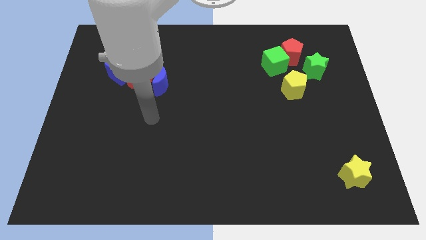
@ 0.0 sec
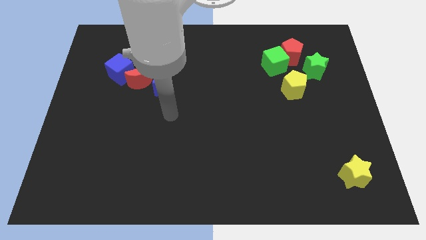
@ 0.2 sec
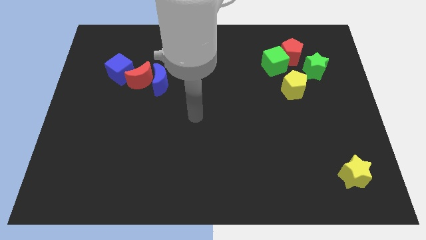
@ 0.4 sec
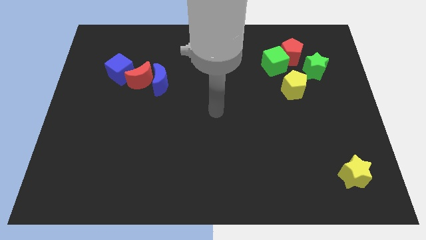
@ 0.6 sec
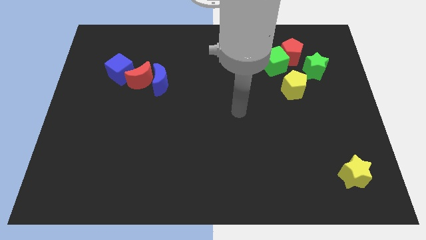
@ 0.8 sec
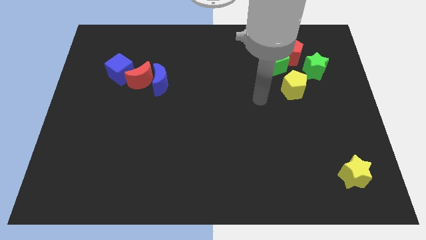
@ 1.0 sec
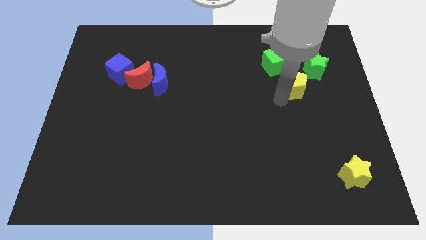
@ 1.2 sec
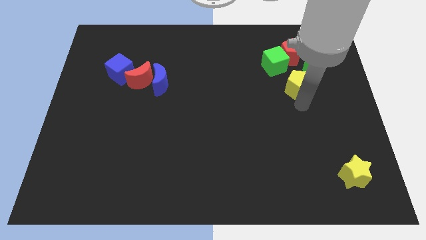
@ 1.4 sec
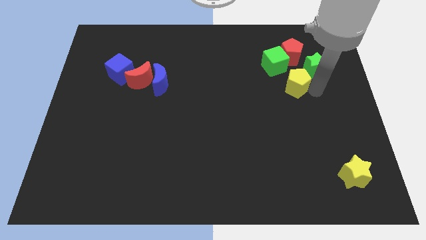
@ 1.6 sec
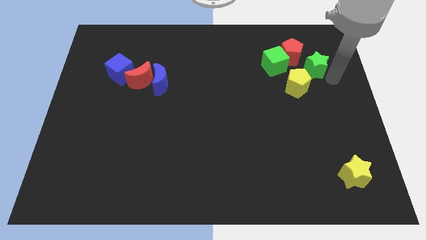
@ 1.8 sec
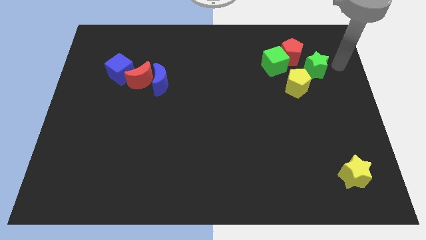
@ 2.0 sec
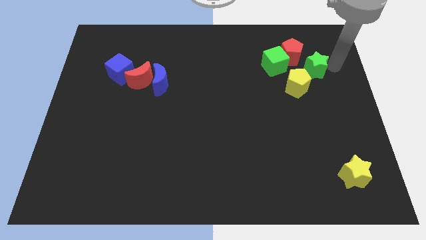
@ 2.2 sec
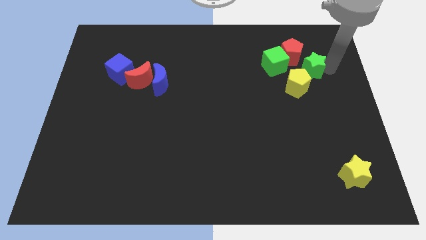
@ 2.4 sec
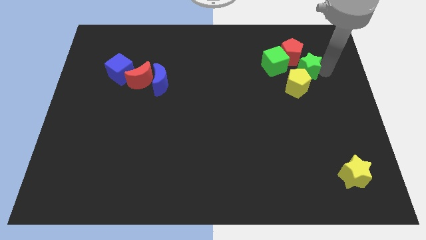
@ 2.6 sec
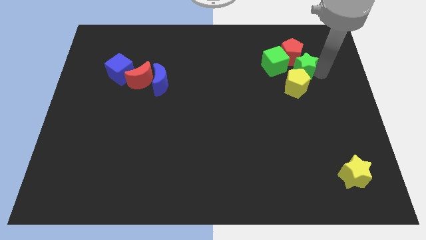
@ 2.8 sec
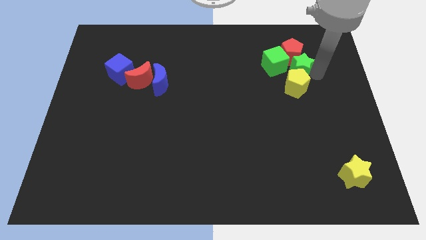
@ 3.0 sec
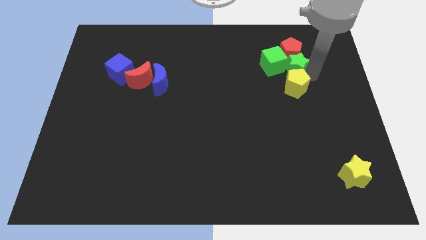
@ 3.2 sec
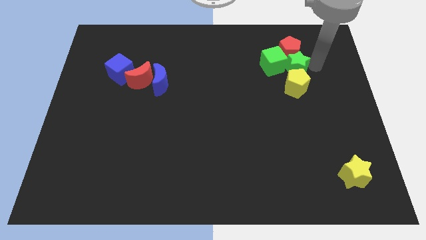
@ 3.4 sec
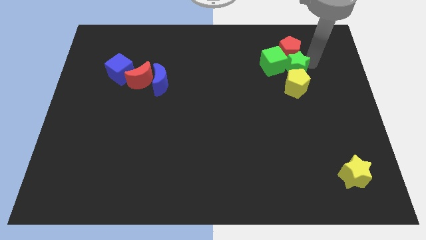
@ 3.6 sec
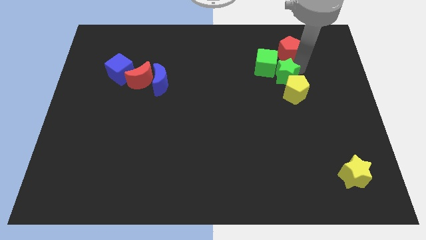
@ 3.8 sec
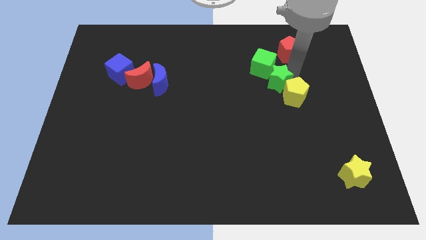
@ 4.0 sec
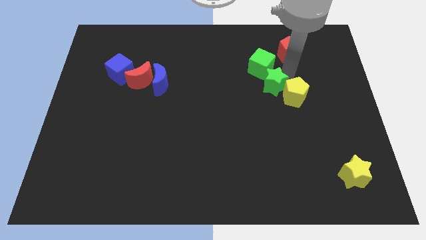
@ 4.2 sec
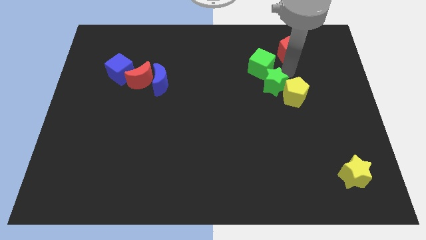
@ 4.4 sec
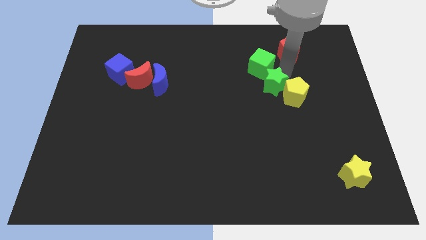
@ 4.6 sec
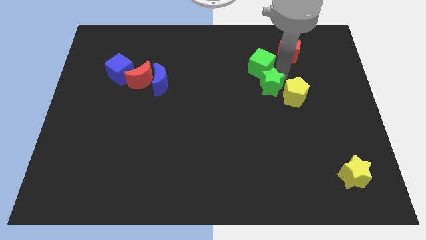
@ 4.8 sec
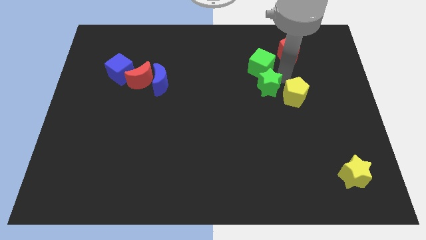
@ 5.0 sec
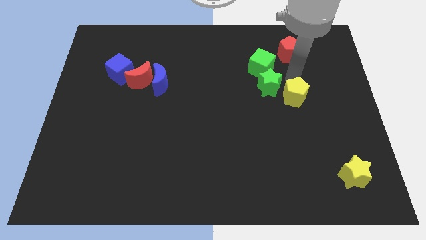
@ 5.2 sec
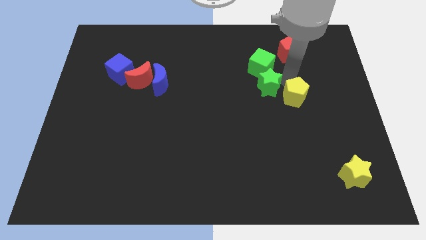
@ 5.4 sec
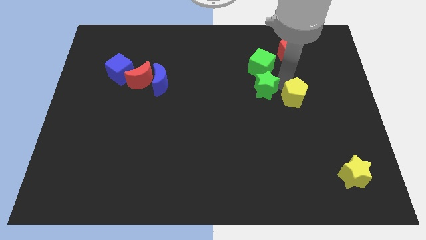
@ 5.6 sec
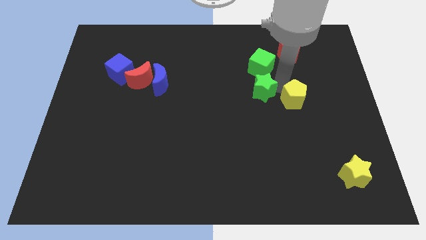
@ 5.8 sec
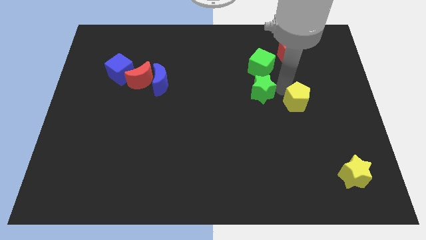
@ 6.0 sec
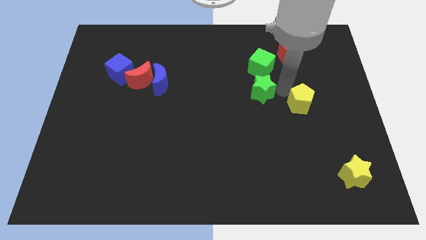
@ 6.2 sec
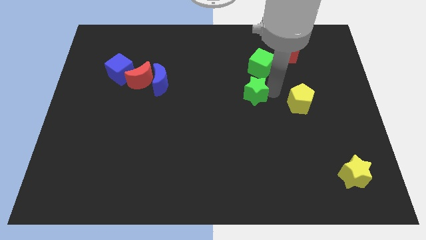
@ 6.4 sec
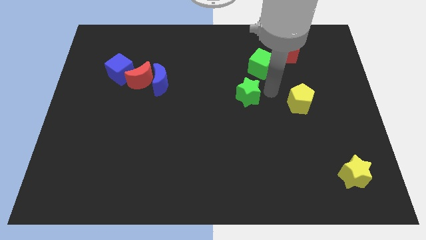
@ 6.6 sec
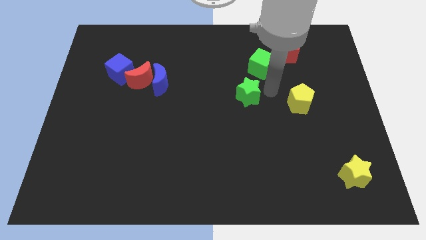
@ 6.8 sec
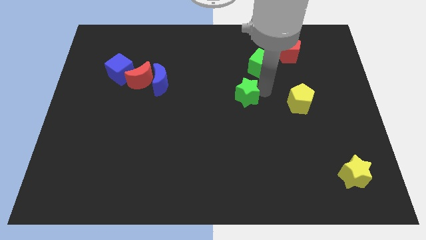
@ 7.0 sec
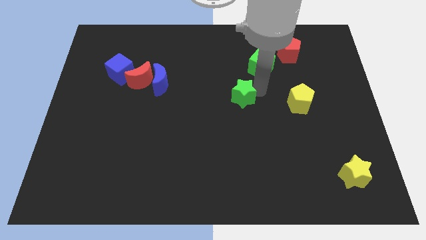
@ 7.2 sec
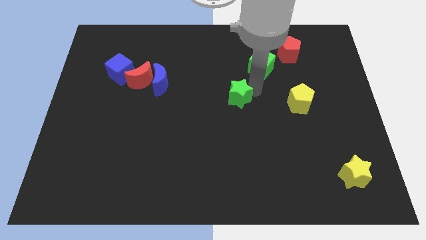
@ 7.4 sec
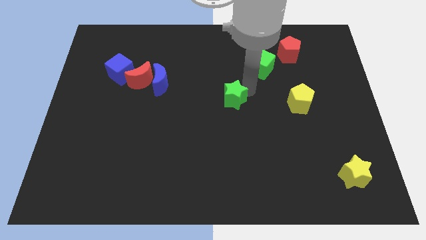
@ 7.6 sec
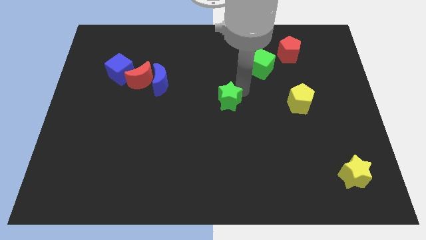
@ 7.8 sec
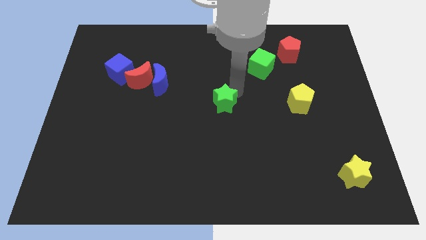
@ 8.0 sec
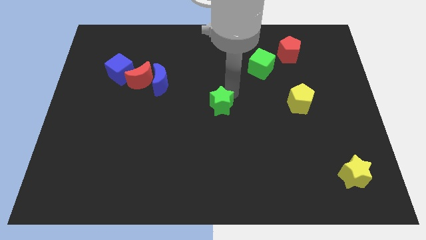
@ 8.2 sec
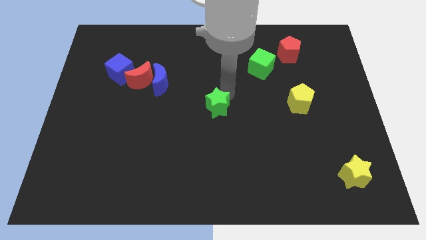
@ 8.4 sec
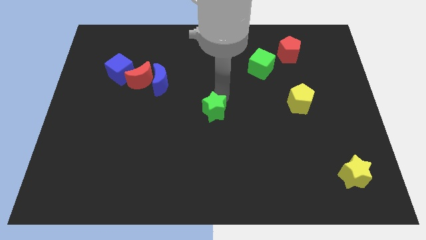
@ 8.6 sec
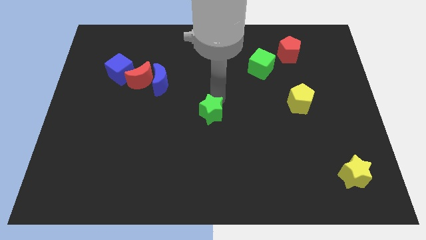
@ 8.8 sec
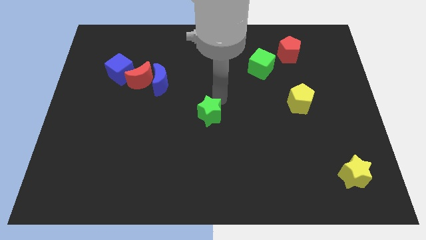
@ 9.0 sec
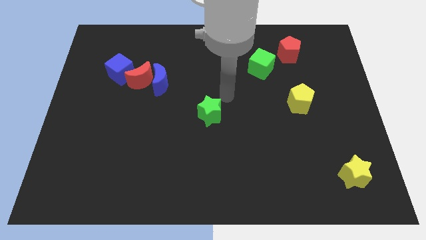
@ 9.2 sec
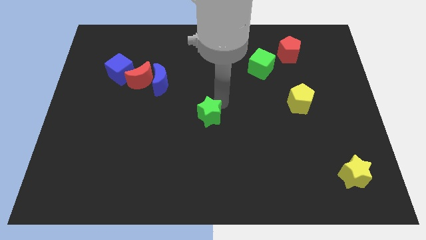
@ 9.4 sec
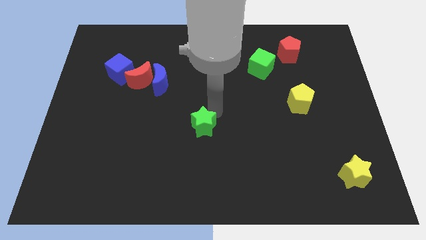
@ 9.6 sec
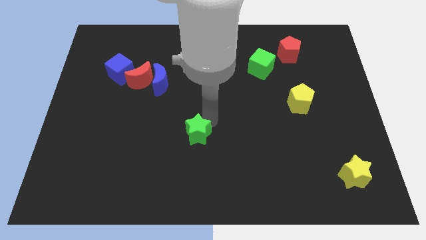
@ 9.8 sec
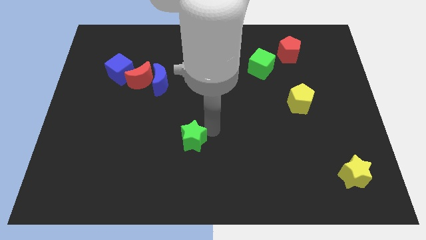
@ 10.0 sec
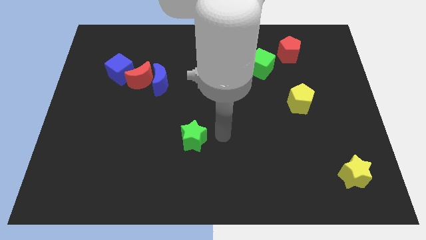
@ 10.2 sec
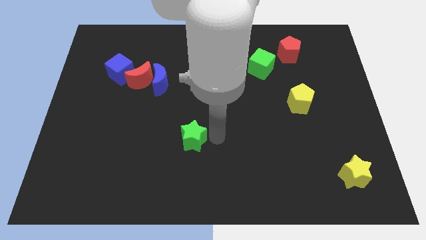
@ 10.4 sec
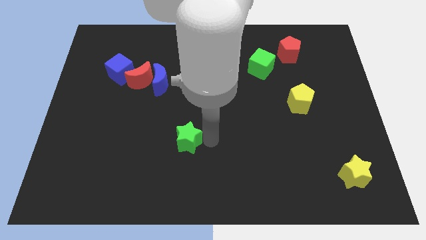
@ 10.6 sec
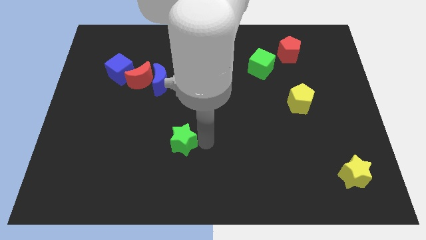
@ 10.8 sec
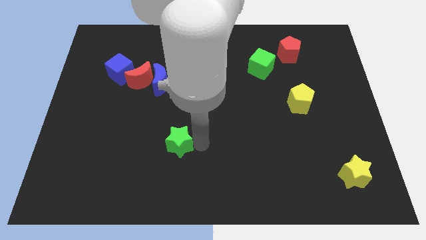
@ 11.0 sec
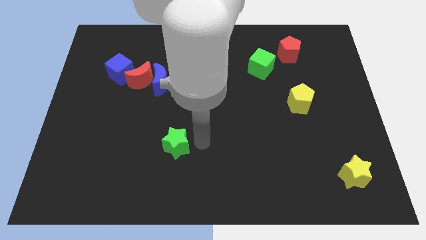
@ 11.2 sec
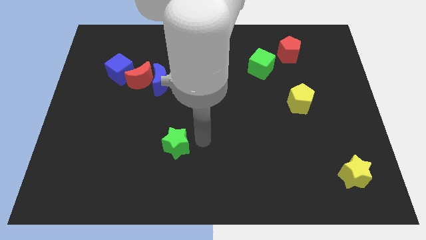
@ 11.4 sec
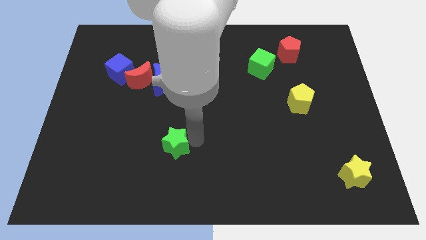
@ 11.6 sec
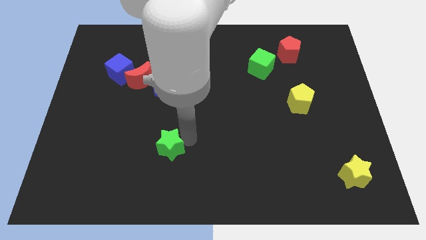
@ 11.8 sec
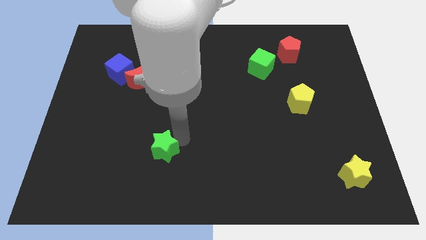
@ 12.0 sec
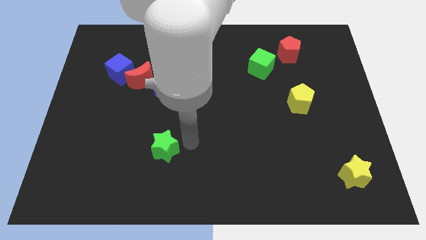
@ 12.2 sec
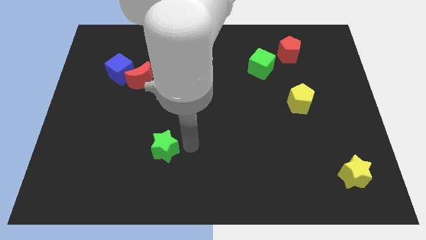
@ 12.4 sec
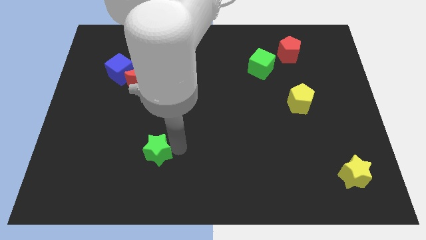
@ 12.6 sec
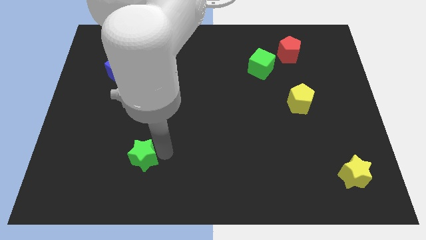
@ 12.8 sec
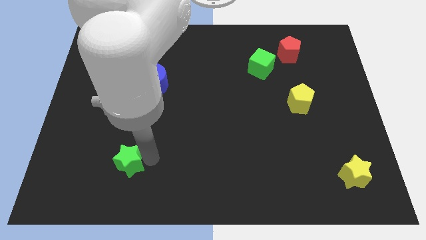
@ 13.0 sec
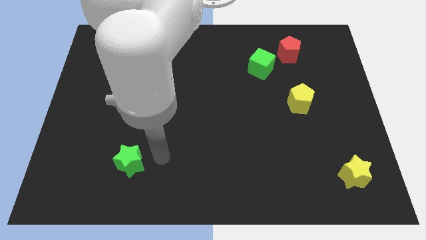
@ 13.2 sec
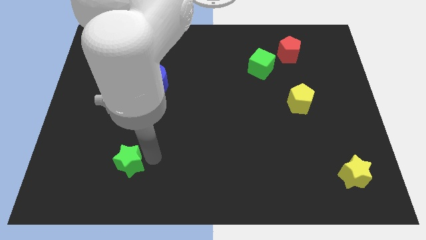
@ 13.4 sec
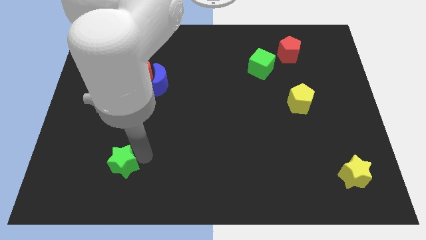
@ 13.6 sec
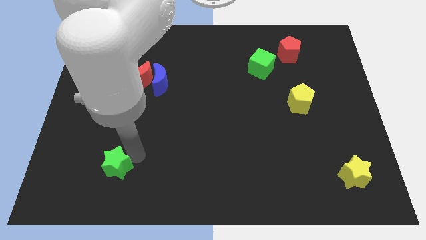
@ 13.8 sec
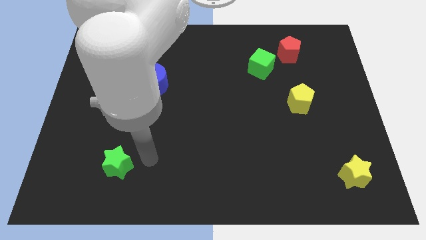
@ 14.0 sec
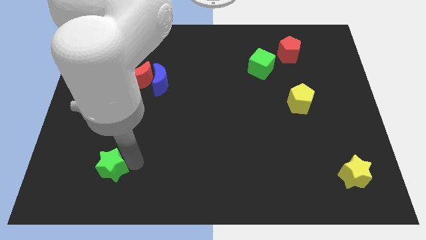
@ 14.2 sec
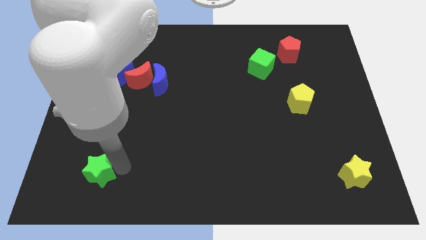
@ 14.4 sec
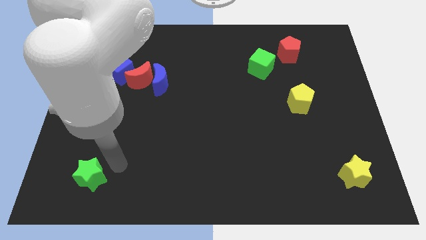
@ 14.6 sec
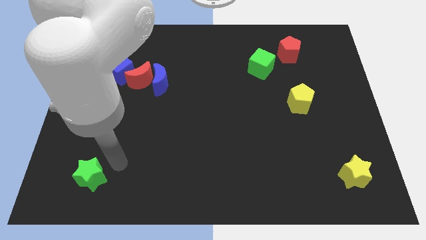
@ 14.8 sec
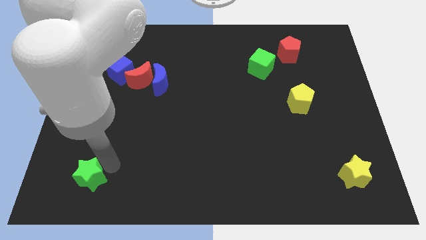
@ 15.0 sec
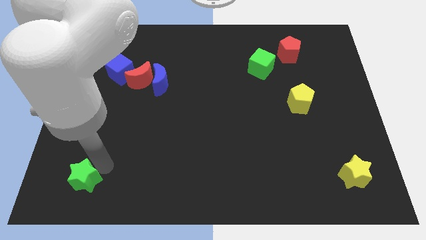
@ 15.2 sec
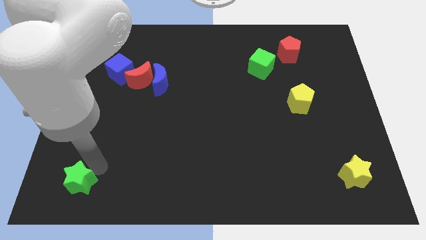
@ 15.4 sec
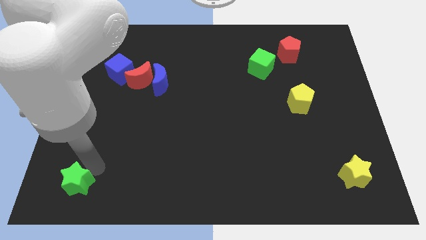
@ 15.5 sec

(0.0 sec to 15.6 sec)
put the green star to the lower left corner
